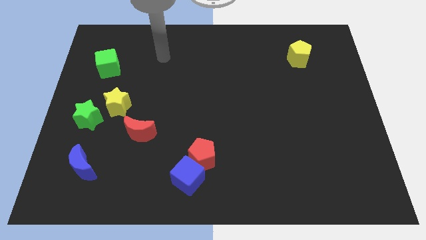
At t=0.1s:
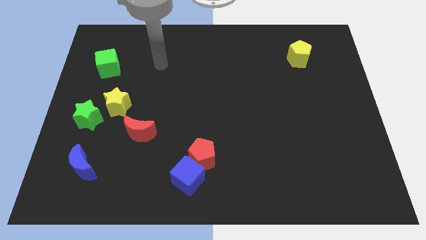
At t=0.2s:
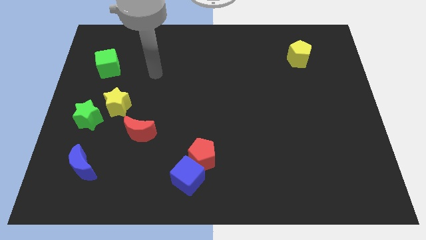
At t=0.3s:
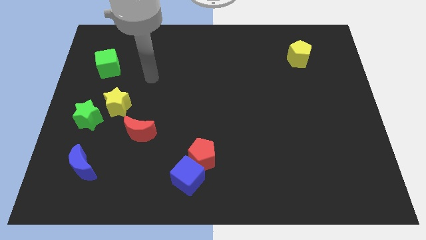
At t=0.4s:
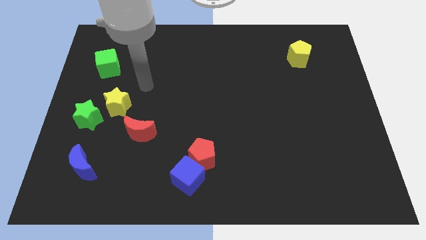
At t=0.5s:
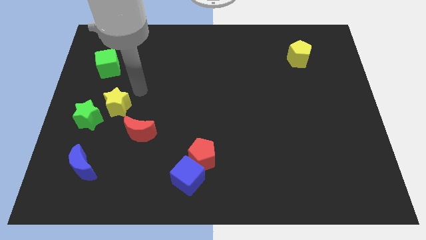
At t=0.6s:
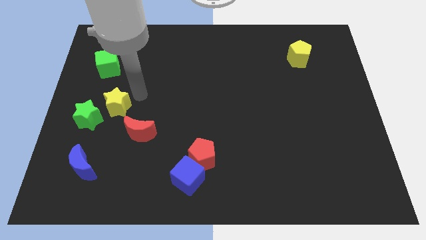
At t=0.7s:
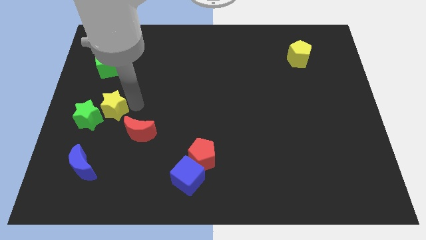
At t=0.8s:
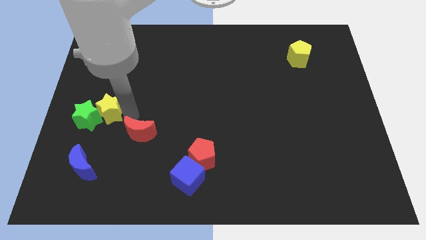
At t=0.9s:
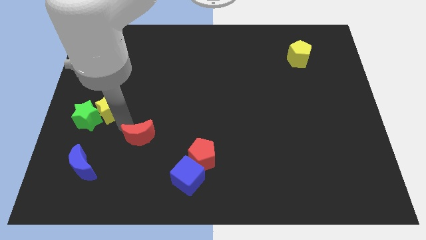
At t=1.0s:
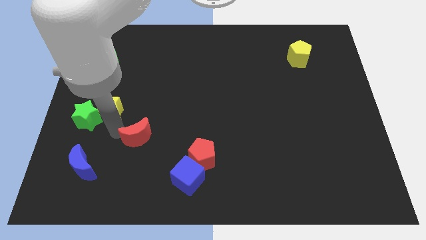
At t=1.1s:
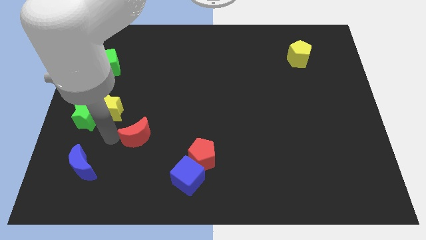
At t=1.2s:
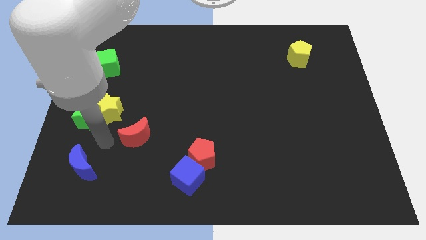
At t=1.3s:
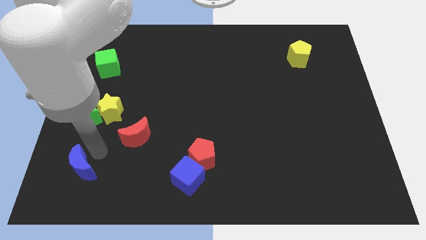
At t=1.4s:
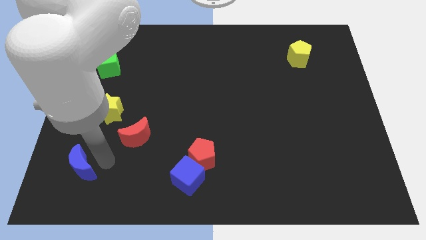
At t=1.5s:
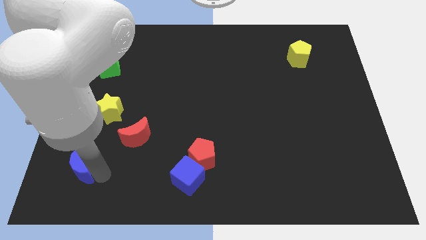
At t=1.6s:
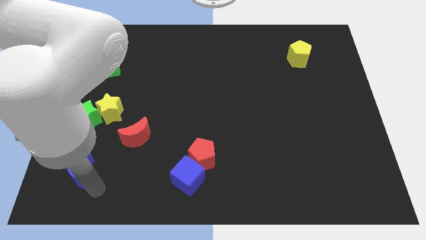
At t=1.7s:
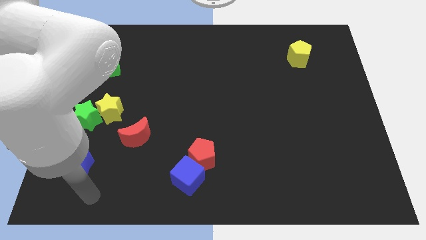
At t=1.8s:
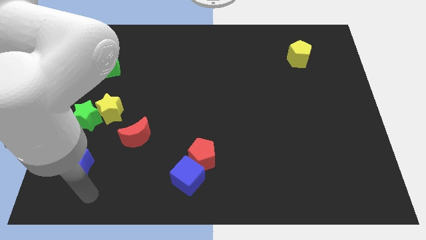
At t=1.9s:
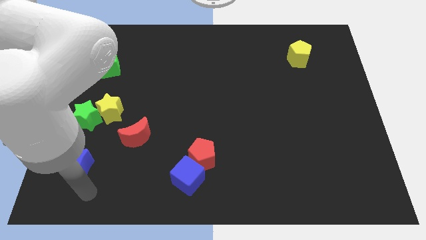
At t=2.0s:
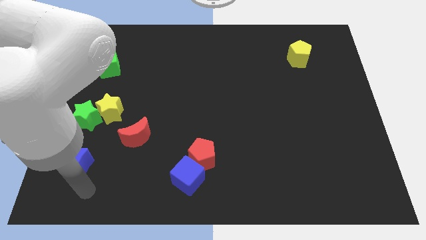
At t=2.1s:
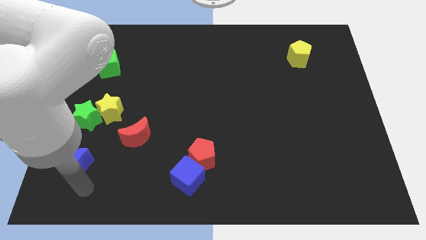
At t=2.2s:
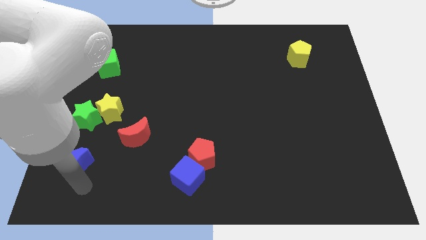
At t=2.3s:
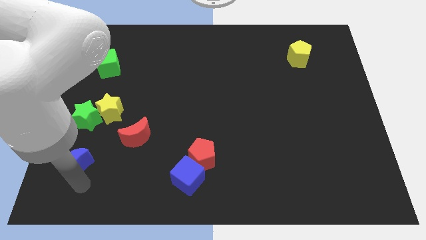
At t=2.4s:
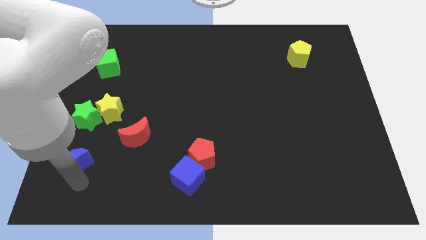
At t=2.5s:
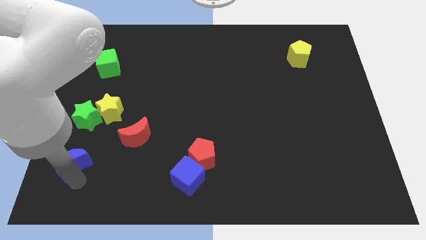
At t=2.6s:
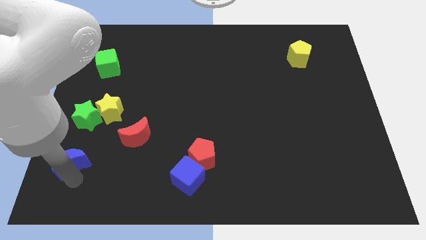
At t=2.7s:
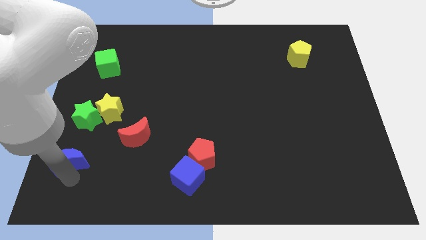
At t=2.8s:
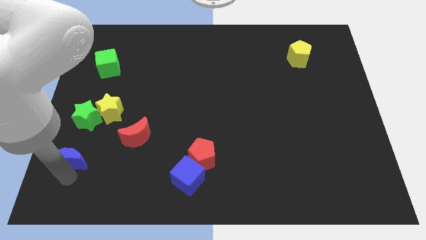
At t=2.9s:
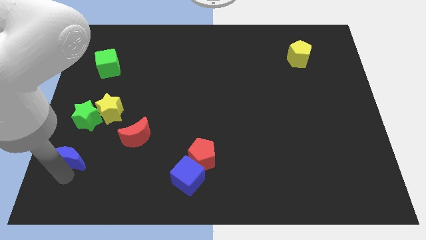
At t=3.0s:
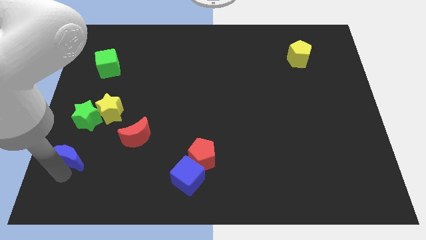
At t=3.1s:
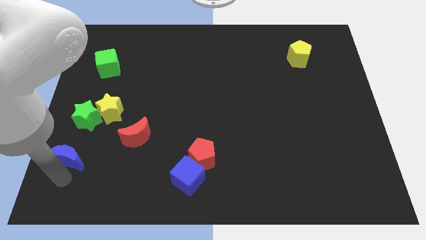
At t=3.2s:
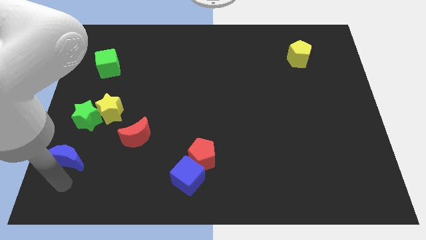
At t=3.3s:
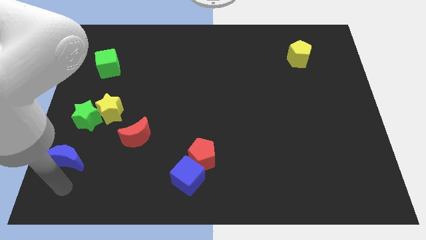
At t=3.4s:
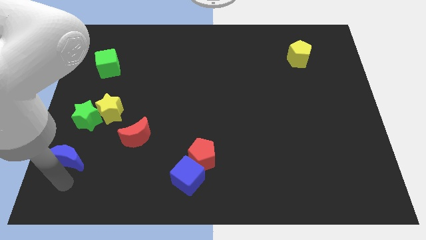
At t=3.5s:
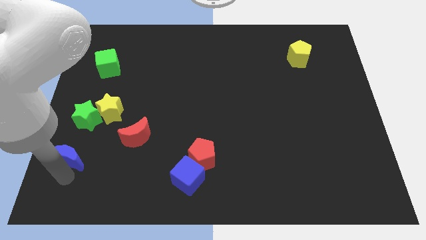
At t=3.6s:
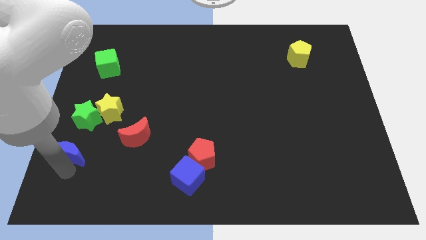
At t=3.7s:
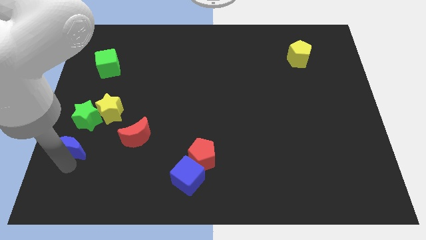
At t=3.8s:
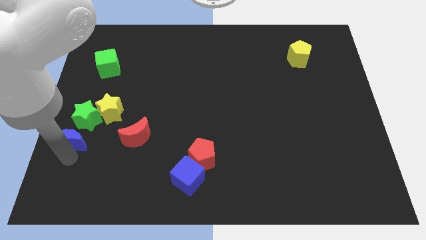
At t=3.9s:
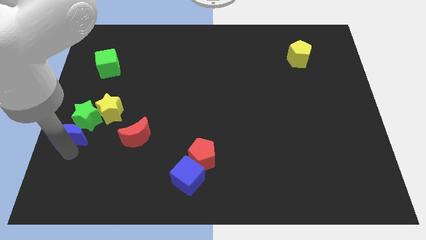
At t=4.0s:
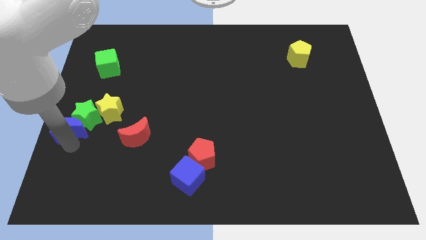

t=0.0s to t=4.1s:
push the blue moon a bit upwards

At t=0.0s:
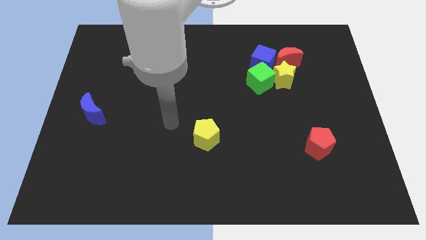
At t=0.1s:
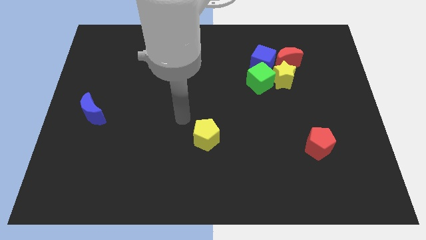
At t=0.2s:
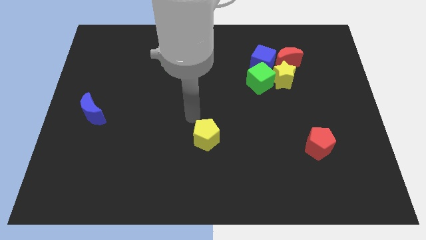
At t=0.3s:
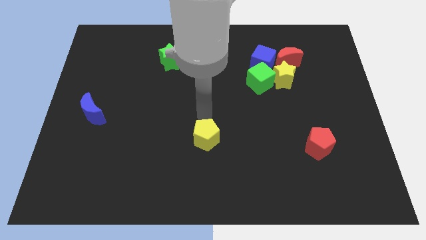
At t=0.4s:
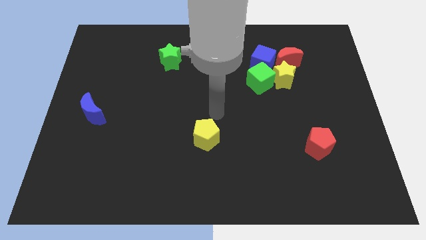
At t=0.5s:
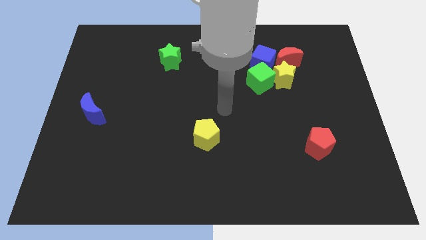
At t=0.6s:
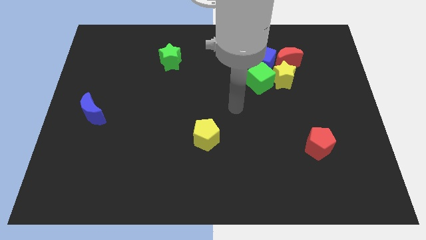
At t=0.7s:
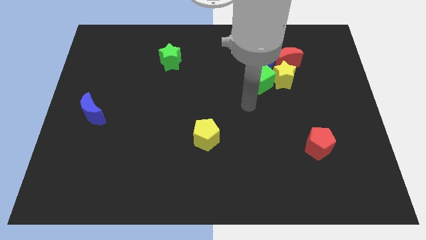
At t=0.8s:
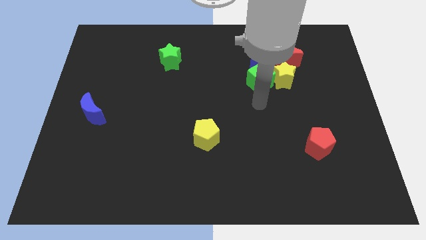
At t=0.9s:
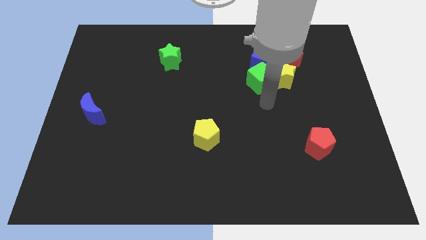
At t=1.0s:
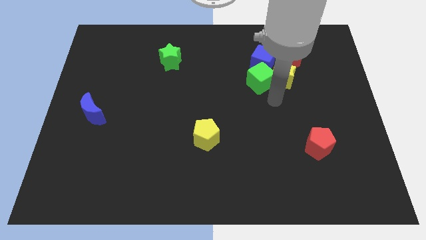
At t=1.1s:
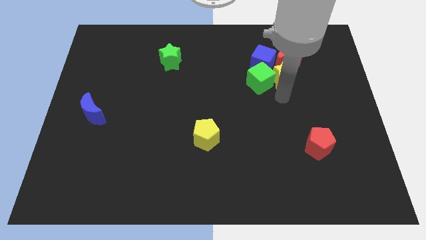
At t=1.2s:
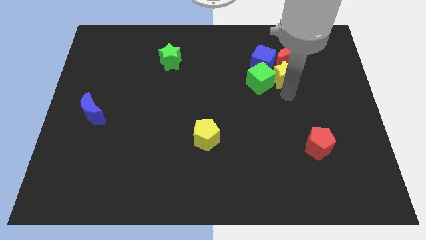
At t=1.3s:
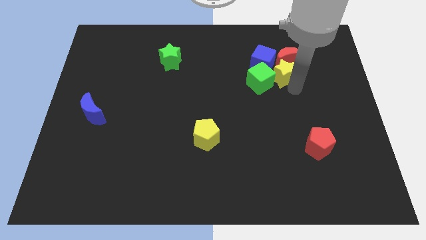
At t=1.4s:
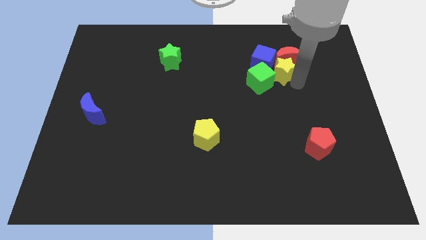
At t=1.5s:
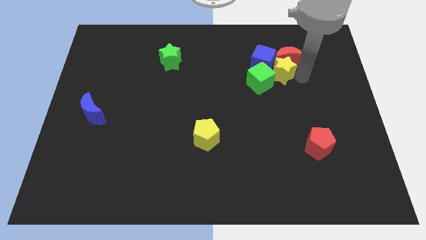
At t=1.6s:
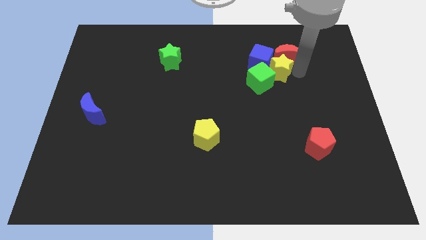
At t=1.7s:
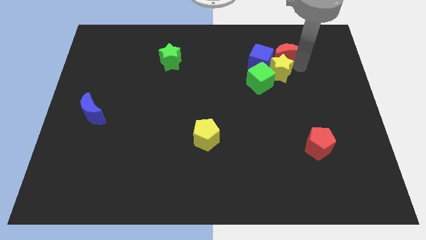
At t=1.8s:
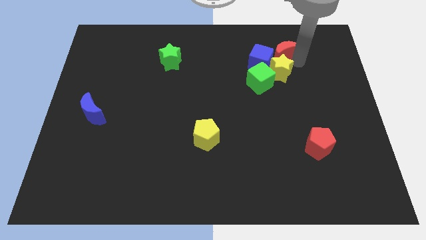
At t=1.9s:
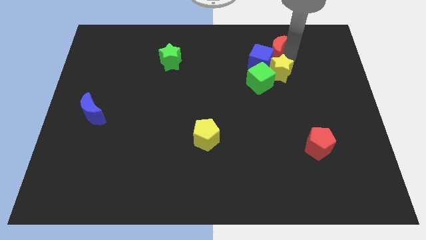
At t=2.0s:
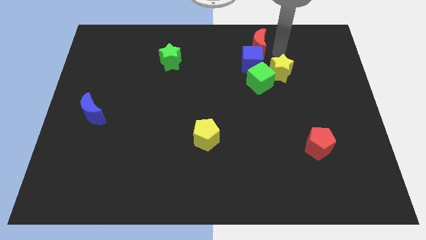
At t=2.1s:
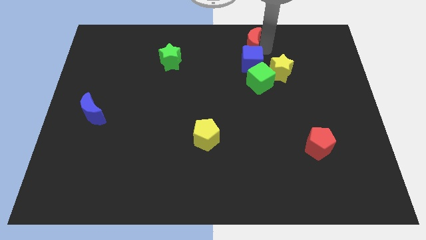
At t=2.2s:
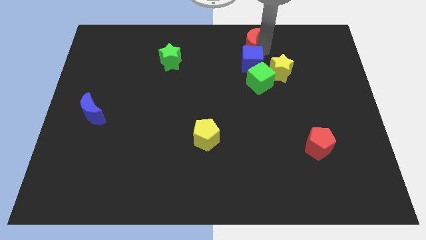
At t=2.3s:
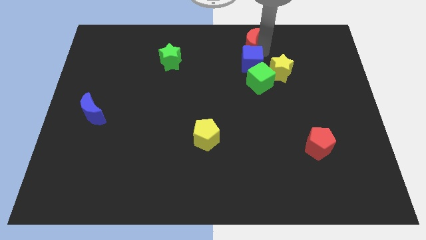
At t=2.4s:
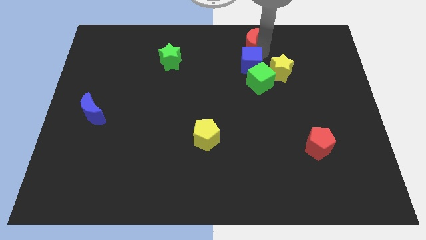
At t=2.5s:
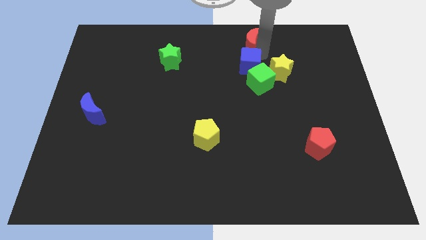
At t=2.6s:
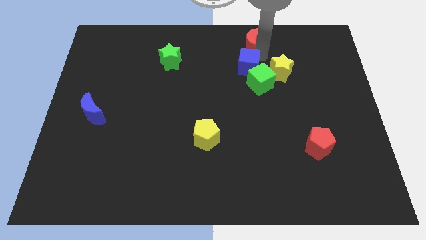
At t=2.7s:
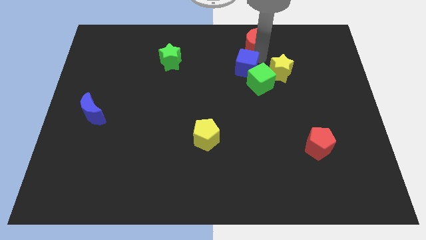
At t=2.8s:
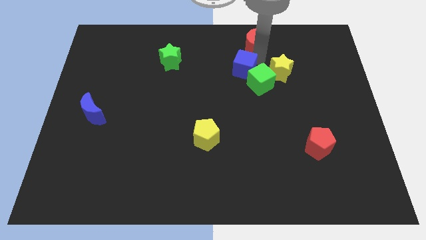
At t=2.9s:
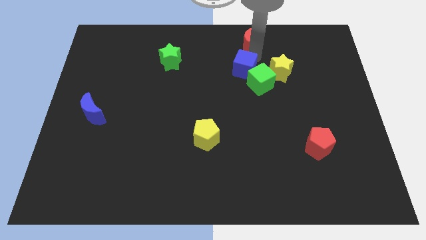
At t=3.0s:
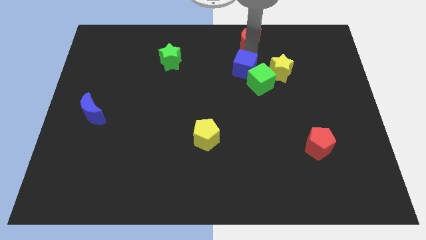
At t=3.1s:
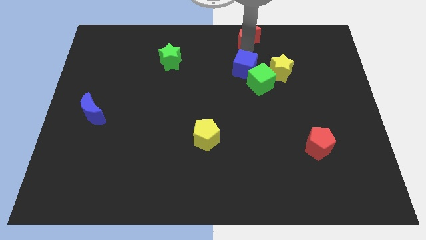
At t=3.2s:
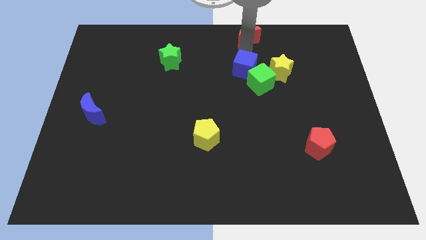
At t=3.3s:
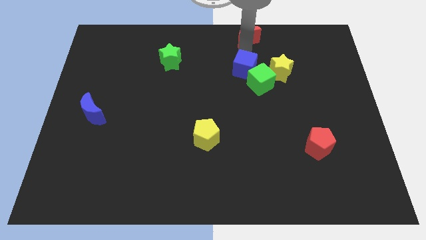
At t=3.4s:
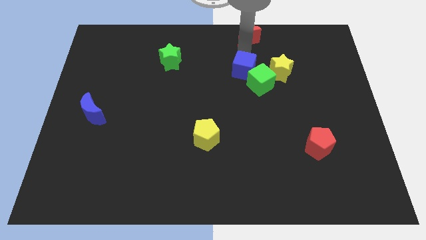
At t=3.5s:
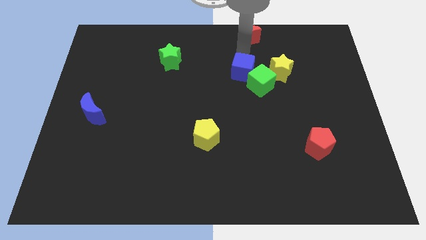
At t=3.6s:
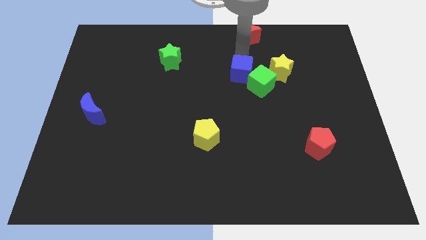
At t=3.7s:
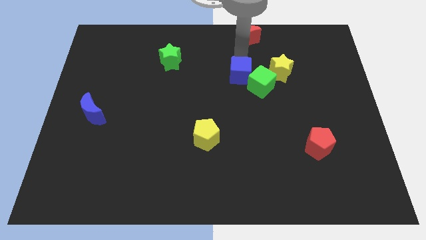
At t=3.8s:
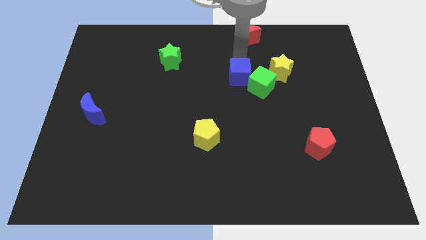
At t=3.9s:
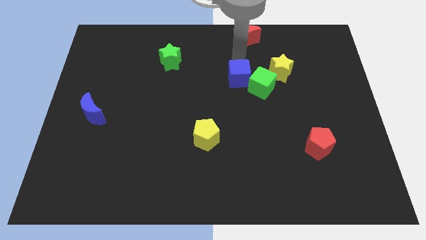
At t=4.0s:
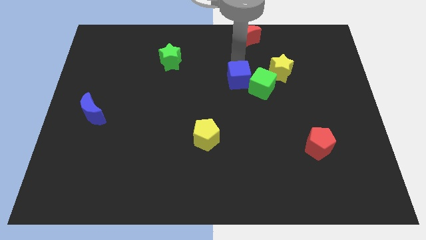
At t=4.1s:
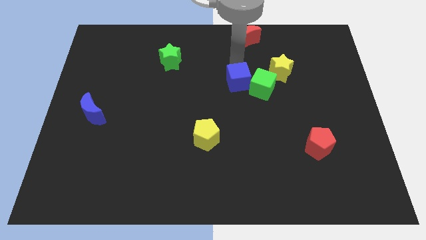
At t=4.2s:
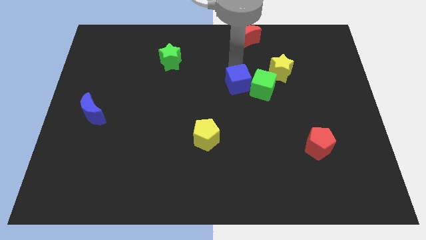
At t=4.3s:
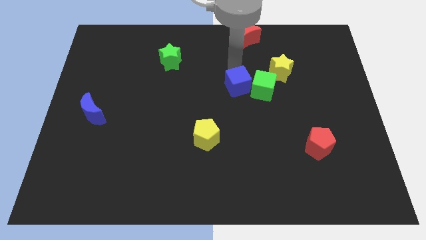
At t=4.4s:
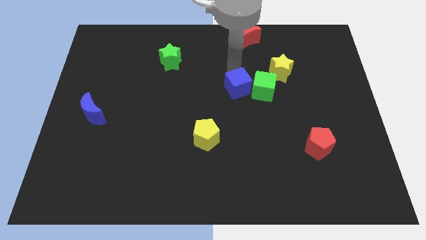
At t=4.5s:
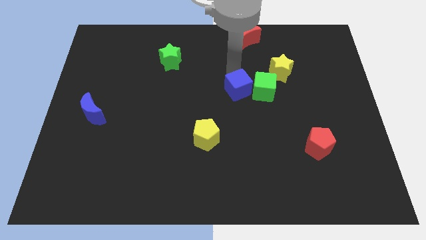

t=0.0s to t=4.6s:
push the blue cube somewhat down
